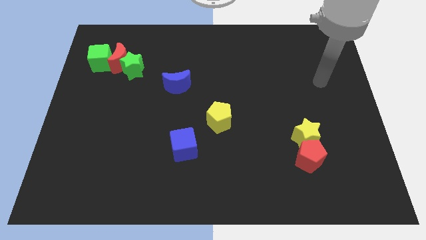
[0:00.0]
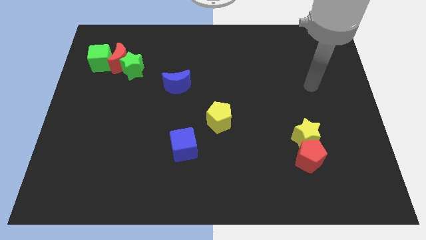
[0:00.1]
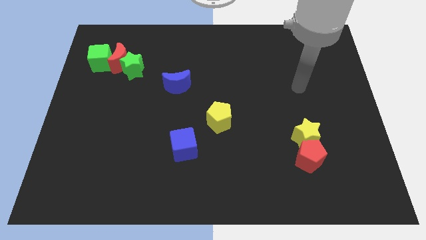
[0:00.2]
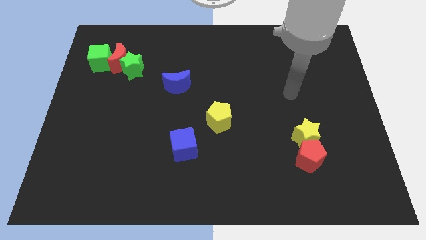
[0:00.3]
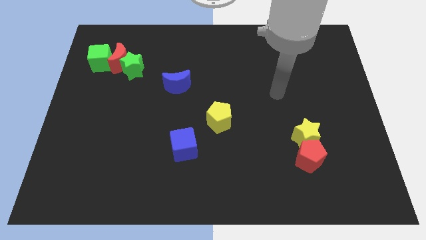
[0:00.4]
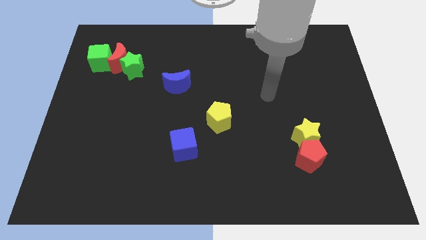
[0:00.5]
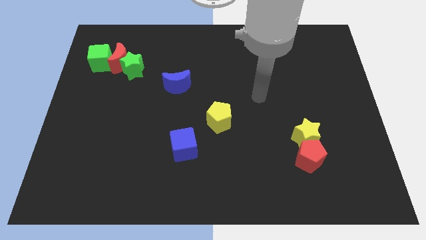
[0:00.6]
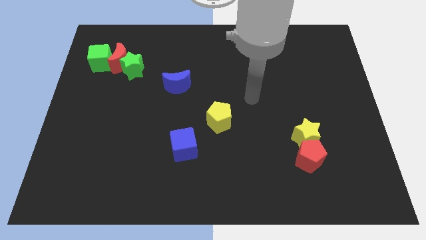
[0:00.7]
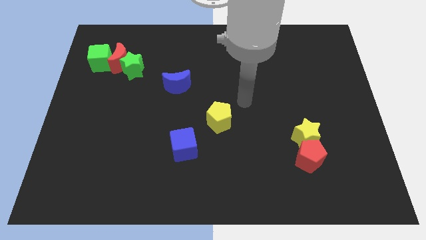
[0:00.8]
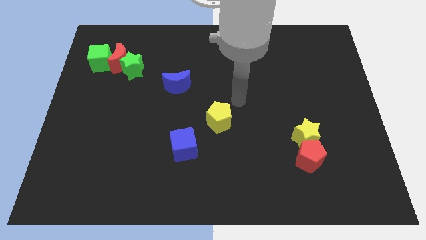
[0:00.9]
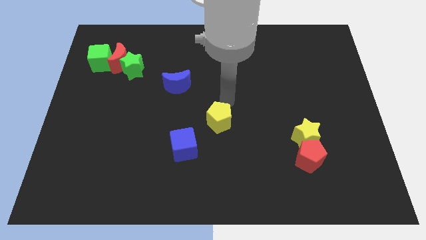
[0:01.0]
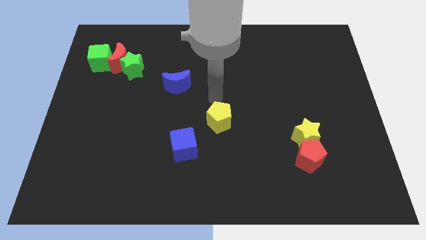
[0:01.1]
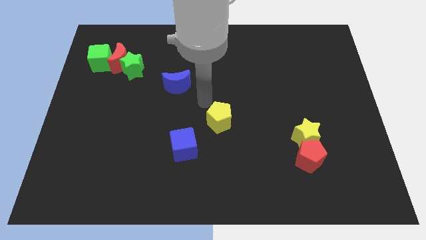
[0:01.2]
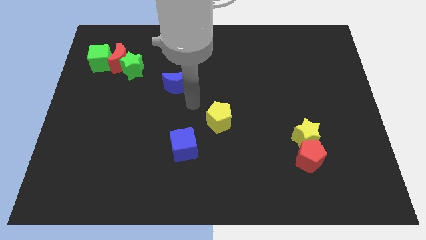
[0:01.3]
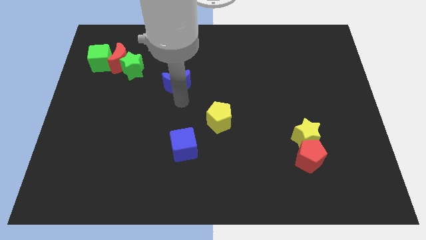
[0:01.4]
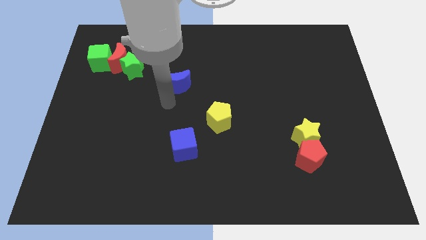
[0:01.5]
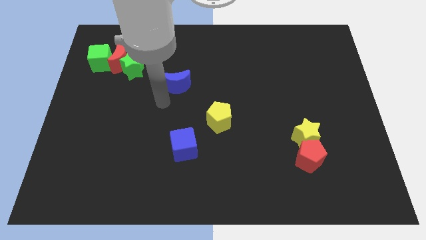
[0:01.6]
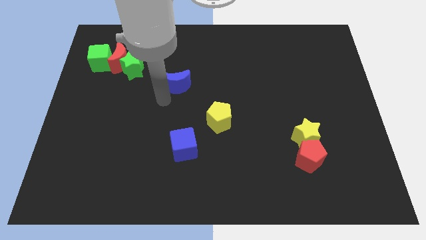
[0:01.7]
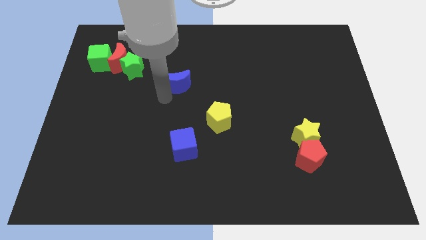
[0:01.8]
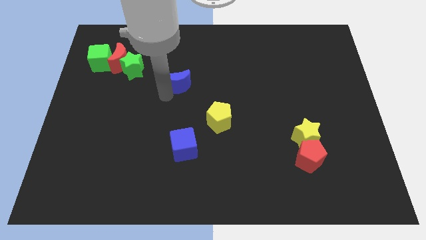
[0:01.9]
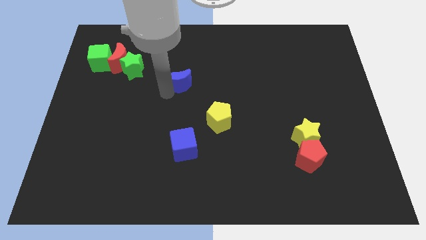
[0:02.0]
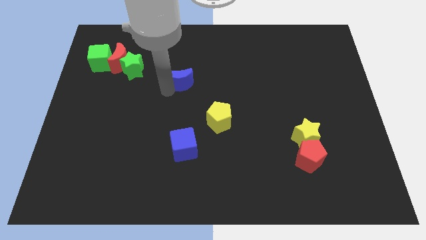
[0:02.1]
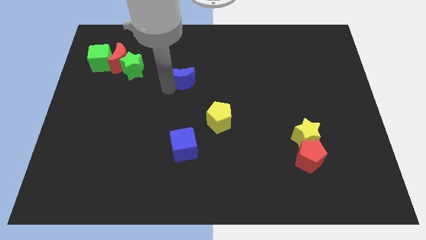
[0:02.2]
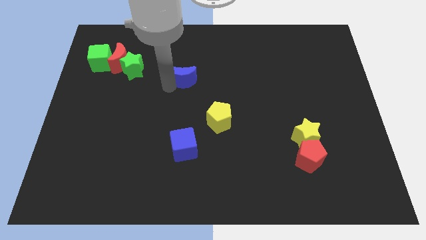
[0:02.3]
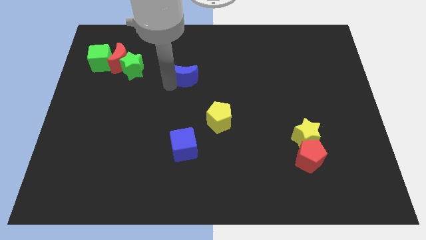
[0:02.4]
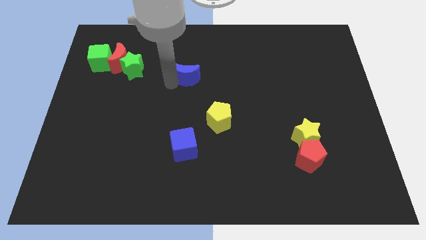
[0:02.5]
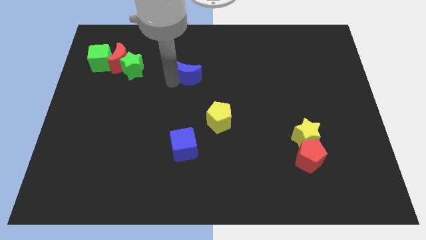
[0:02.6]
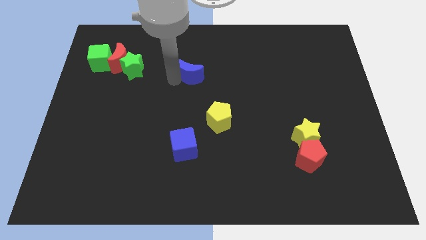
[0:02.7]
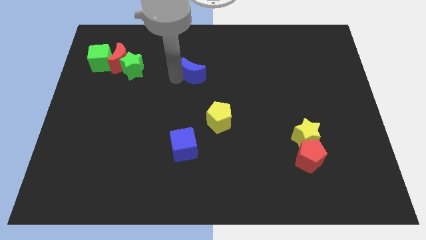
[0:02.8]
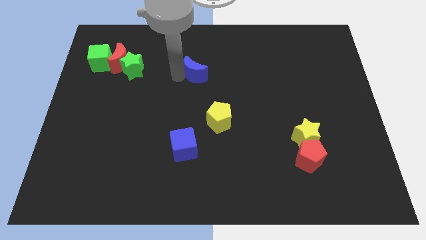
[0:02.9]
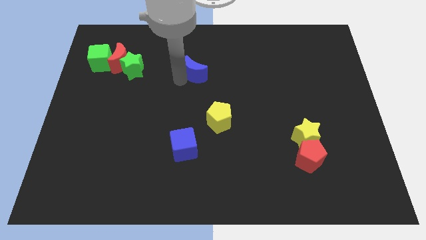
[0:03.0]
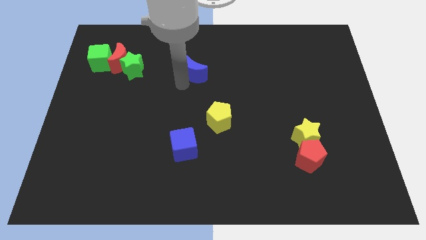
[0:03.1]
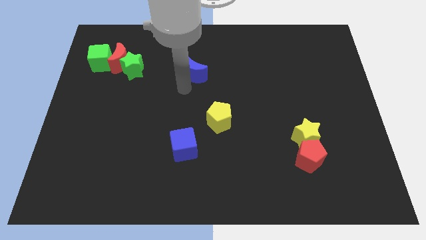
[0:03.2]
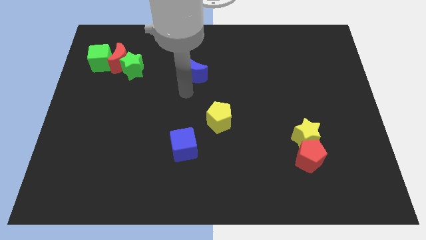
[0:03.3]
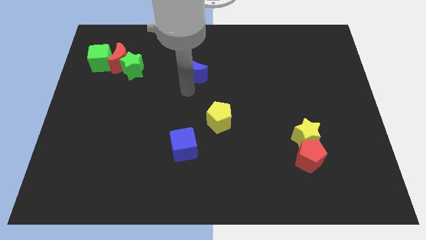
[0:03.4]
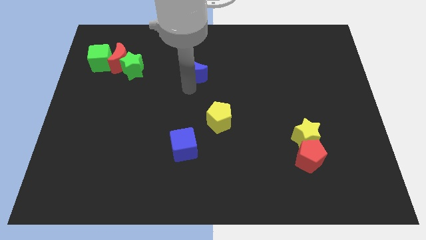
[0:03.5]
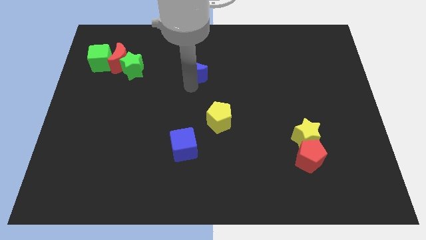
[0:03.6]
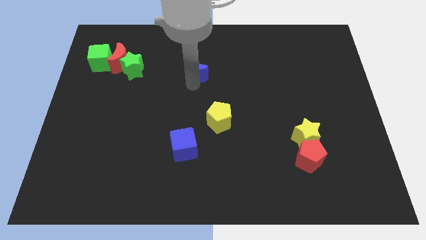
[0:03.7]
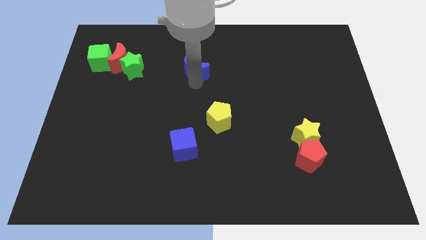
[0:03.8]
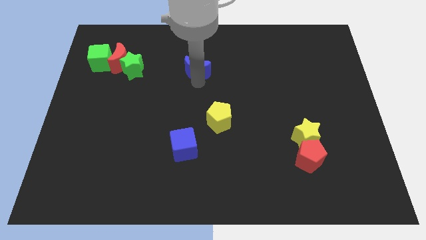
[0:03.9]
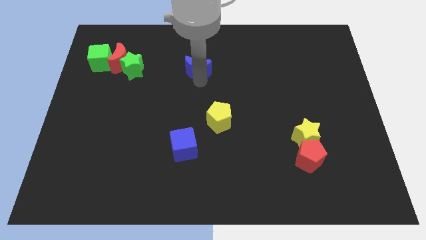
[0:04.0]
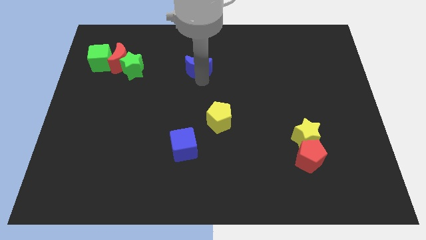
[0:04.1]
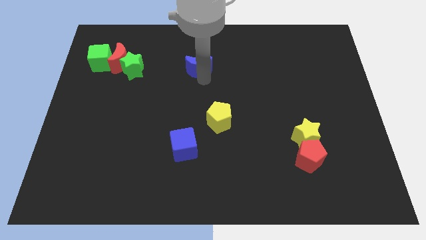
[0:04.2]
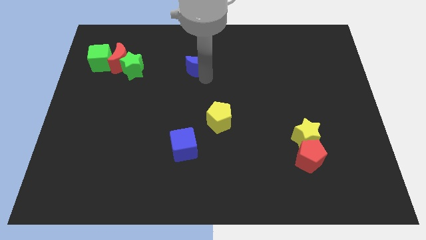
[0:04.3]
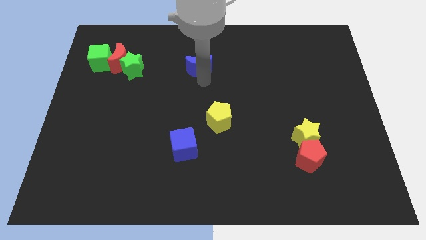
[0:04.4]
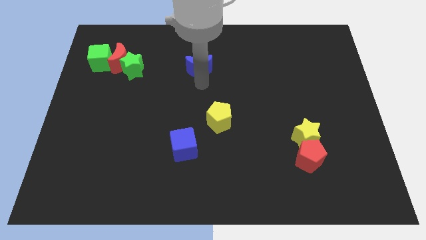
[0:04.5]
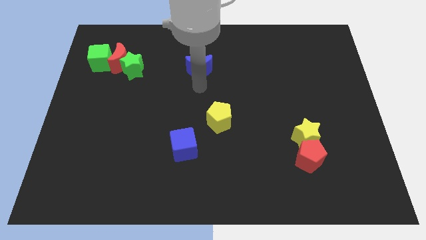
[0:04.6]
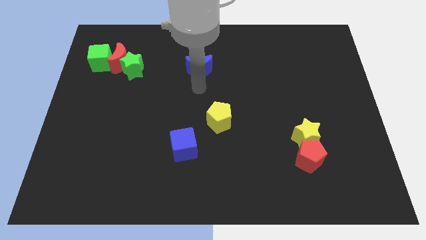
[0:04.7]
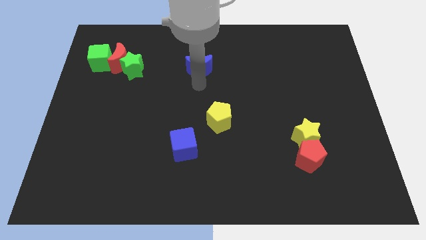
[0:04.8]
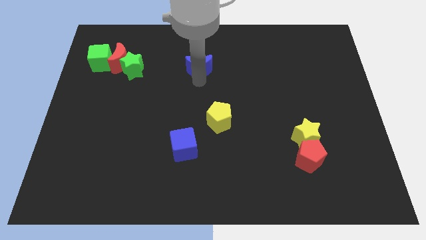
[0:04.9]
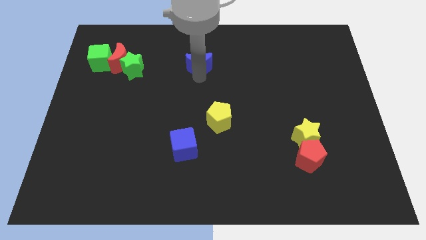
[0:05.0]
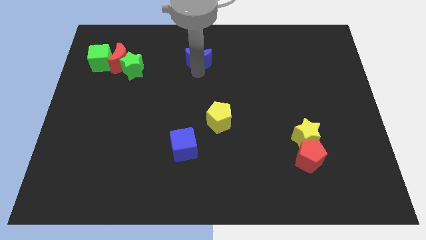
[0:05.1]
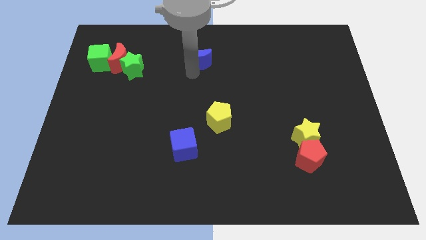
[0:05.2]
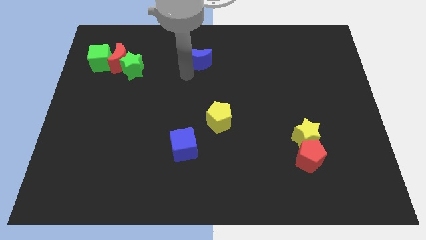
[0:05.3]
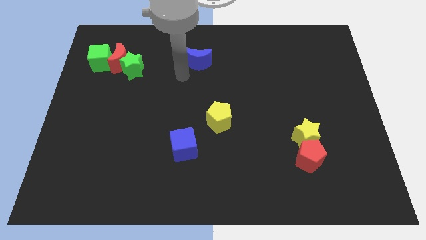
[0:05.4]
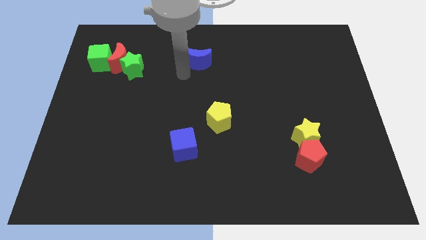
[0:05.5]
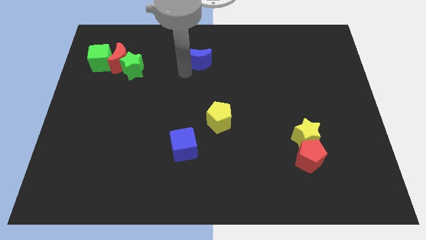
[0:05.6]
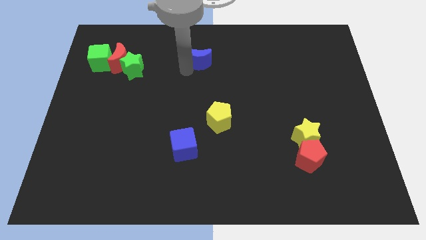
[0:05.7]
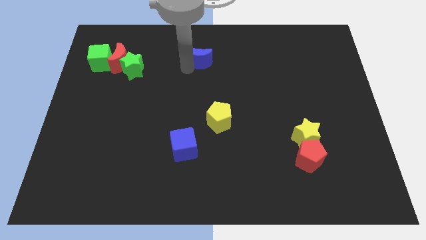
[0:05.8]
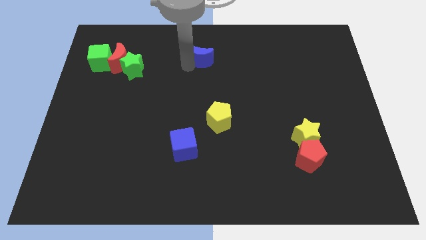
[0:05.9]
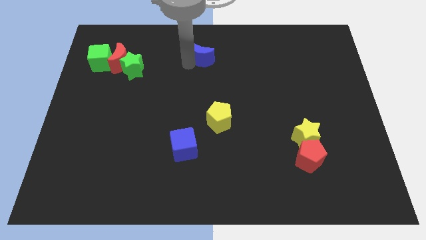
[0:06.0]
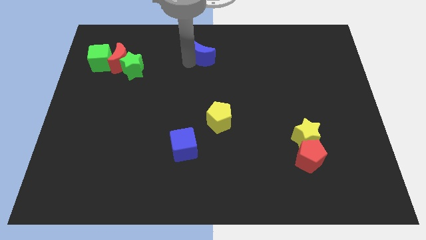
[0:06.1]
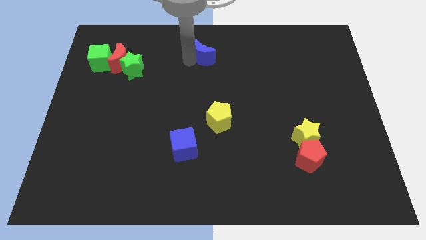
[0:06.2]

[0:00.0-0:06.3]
slide the blue moon to the top
